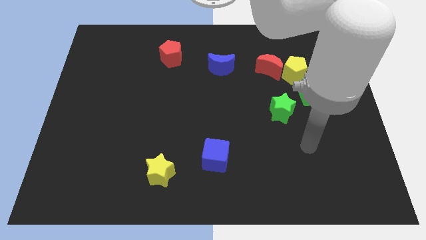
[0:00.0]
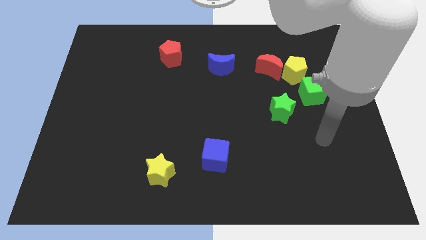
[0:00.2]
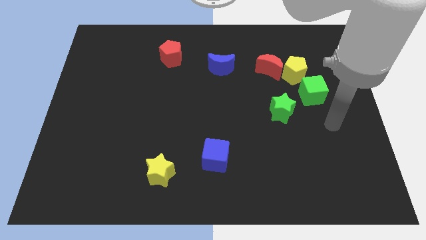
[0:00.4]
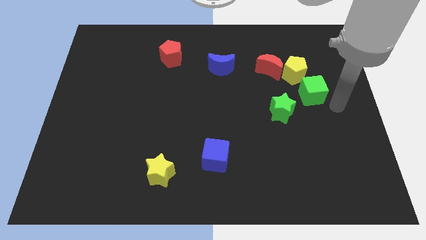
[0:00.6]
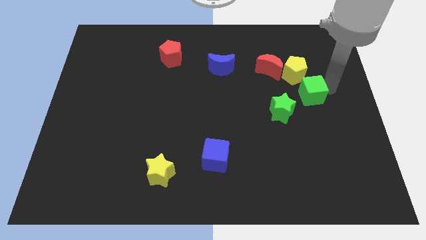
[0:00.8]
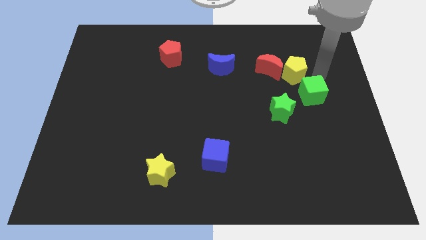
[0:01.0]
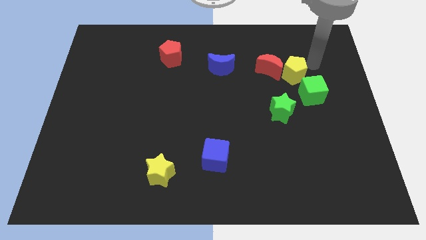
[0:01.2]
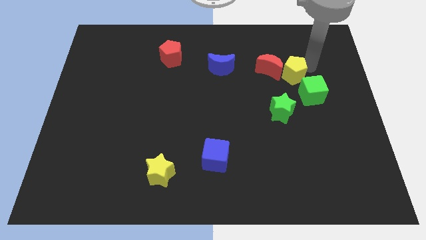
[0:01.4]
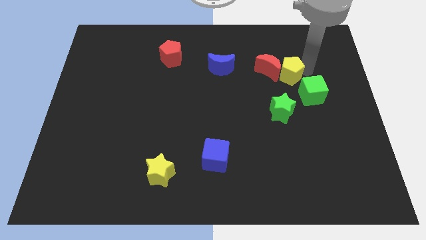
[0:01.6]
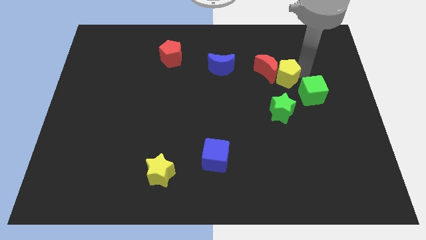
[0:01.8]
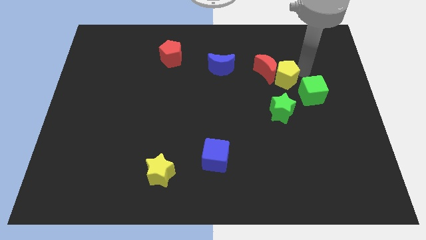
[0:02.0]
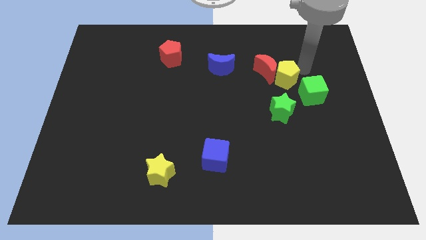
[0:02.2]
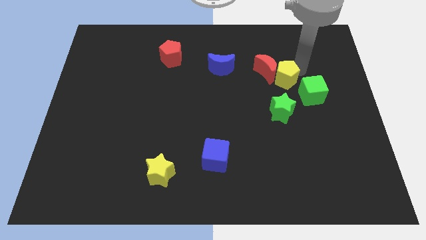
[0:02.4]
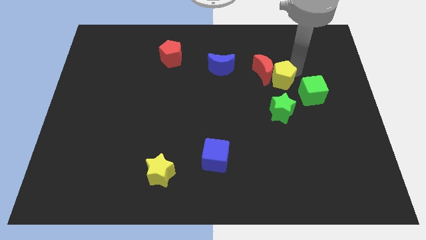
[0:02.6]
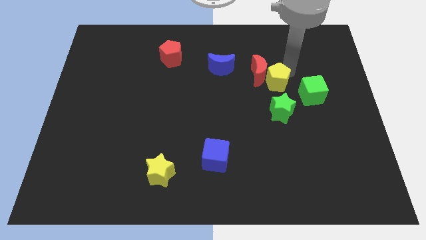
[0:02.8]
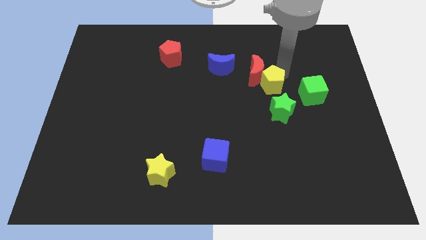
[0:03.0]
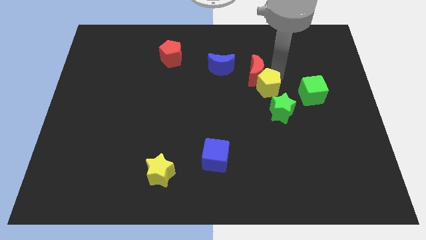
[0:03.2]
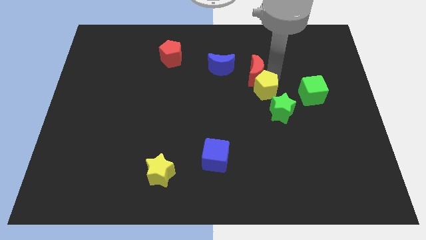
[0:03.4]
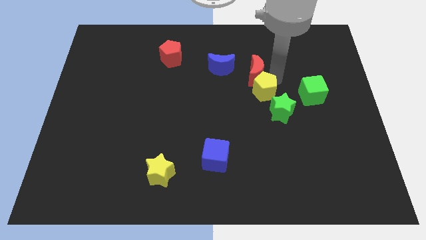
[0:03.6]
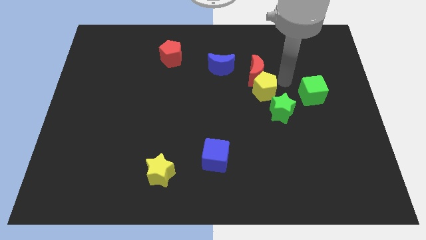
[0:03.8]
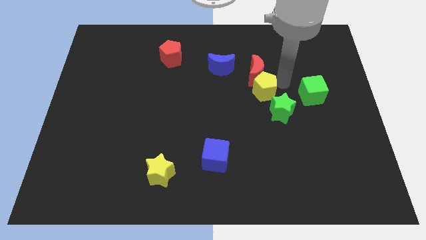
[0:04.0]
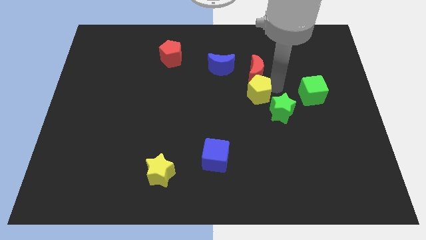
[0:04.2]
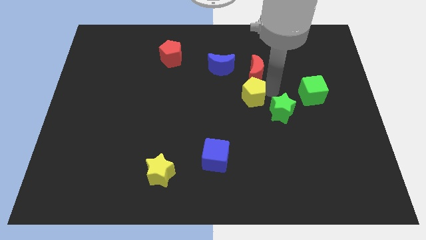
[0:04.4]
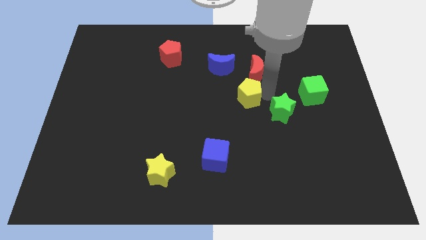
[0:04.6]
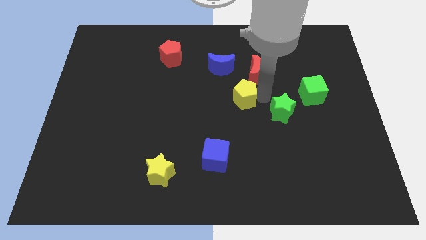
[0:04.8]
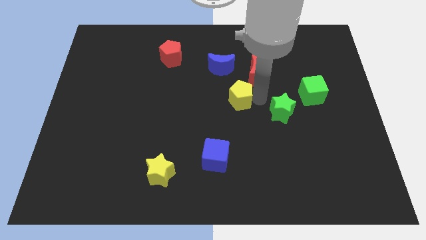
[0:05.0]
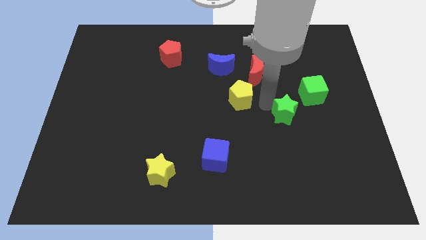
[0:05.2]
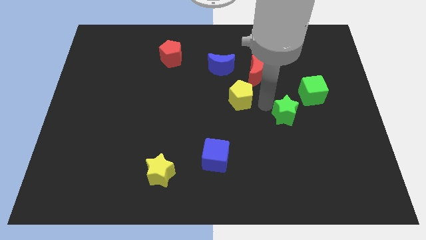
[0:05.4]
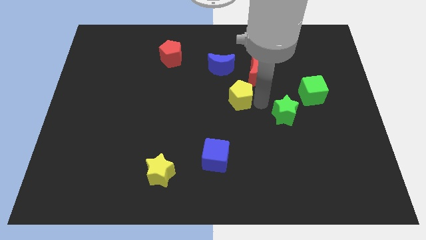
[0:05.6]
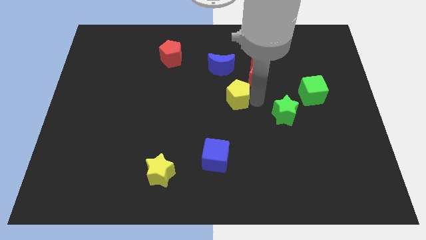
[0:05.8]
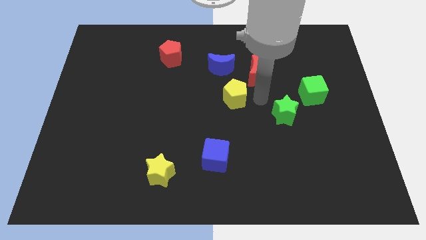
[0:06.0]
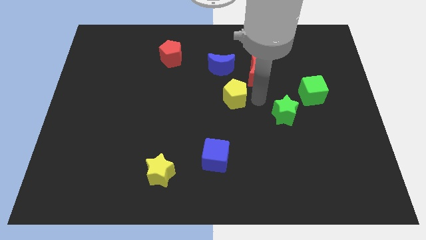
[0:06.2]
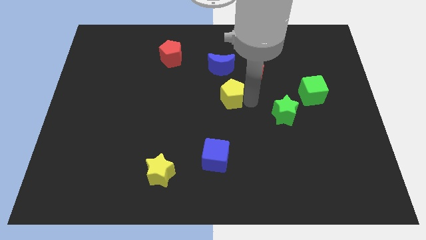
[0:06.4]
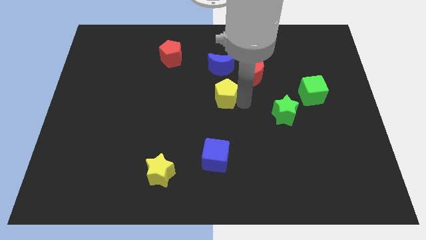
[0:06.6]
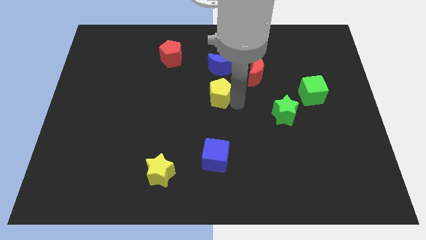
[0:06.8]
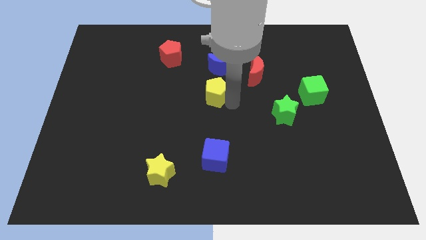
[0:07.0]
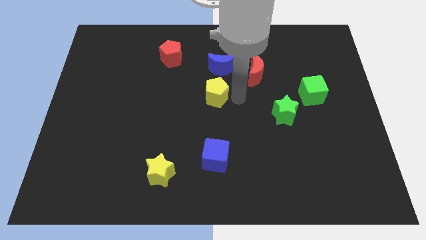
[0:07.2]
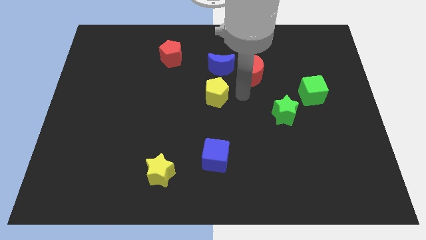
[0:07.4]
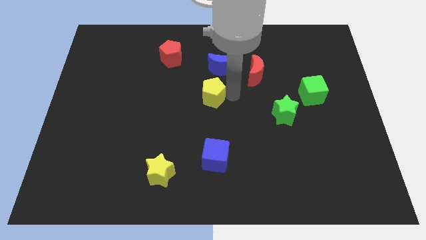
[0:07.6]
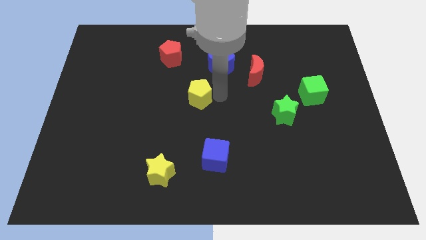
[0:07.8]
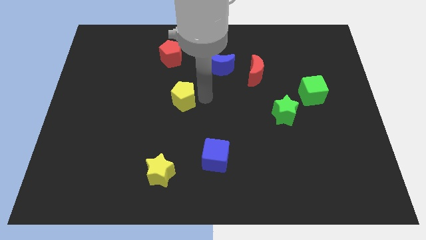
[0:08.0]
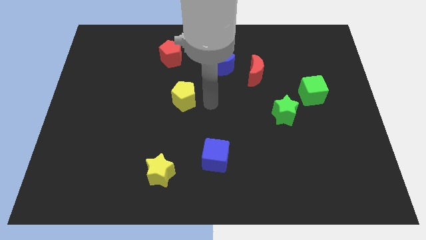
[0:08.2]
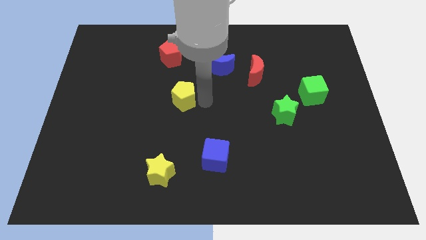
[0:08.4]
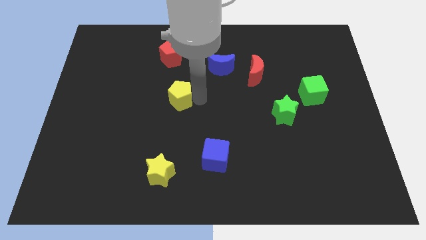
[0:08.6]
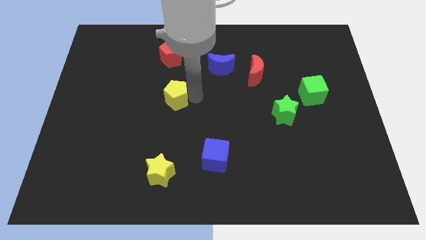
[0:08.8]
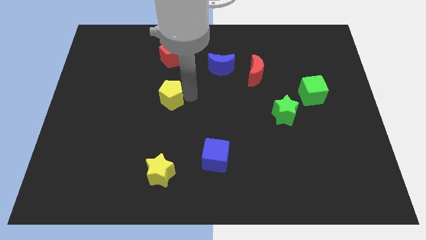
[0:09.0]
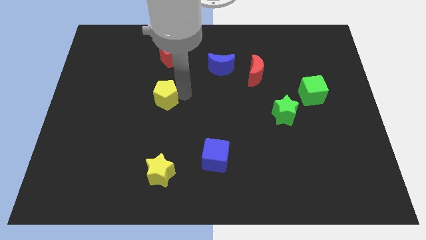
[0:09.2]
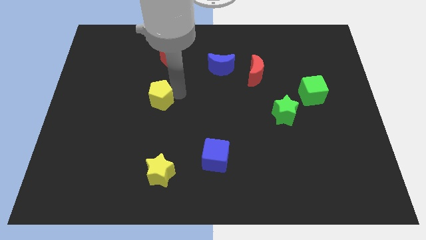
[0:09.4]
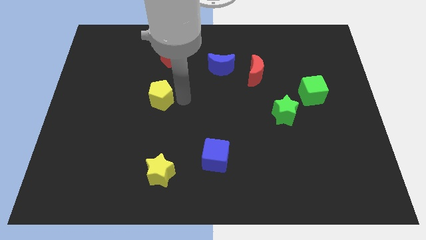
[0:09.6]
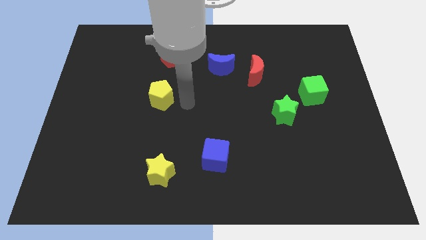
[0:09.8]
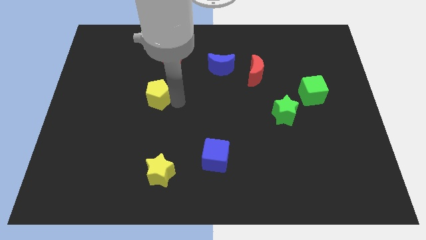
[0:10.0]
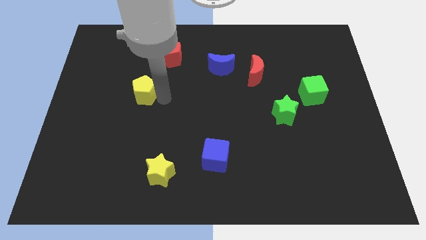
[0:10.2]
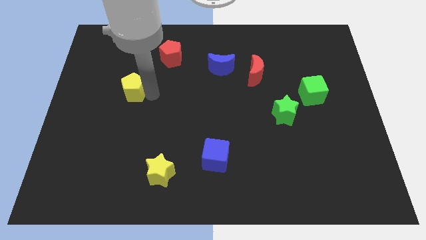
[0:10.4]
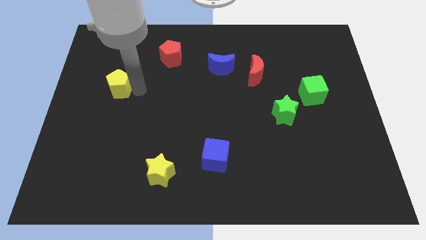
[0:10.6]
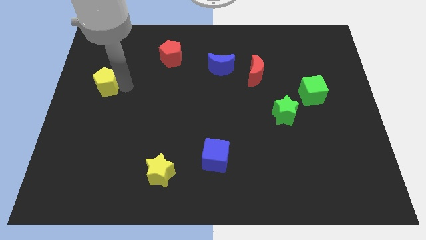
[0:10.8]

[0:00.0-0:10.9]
move the yellow pentagon to the left side of the board
